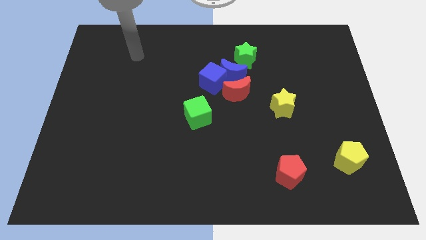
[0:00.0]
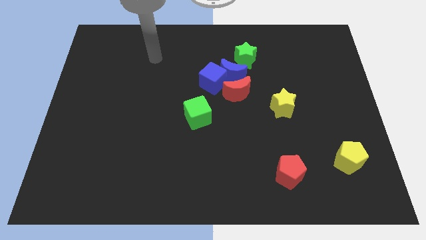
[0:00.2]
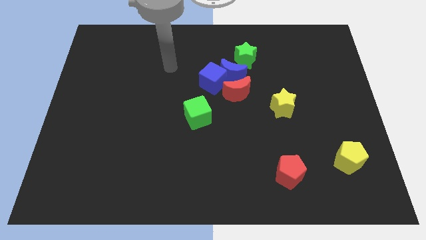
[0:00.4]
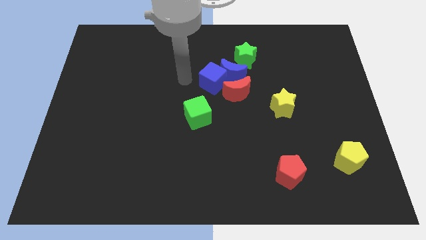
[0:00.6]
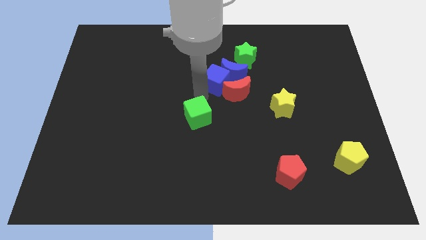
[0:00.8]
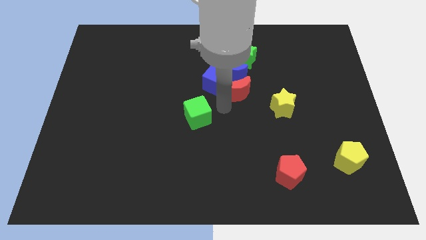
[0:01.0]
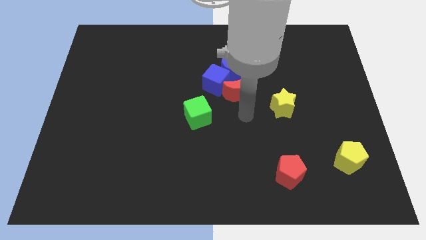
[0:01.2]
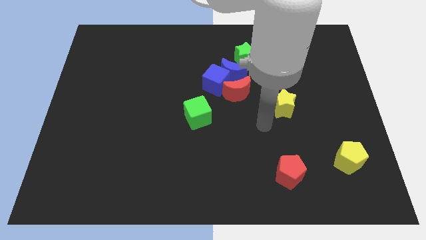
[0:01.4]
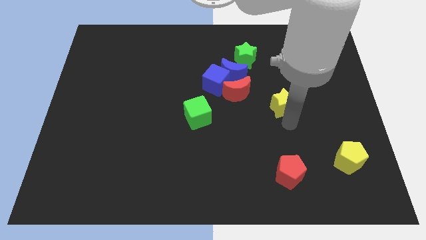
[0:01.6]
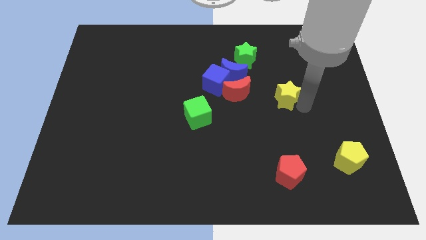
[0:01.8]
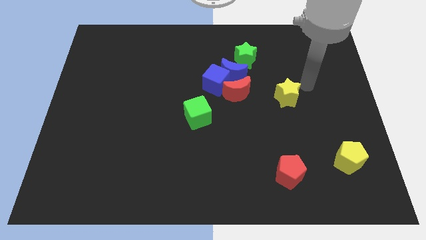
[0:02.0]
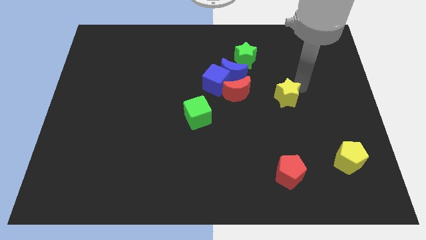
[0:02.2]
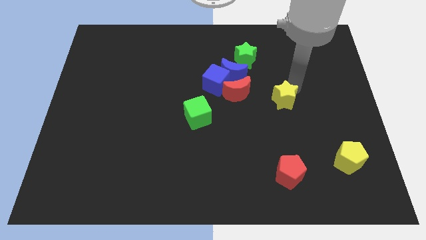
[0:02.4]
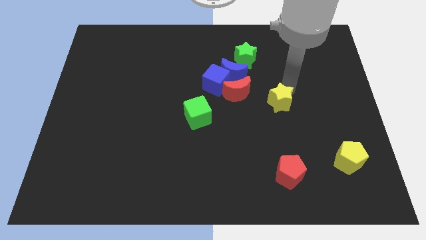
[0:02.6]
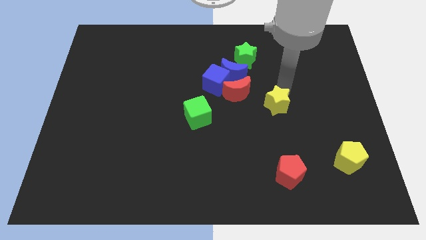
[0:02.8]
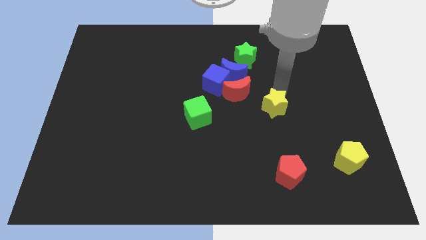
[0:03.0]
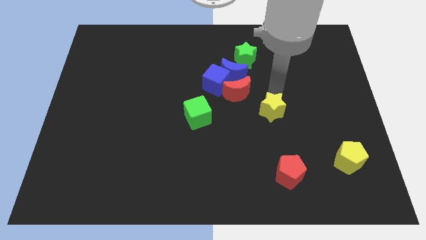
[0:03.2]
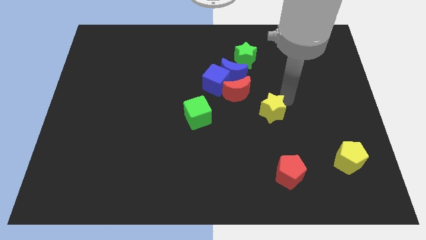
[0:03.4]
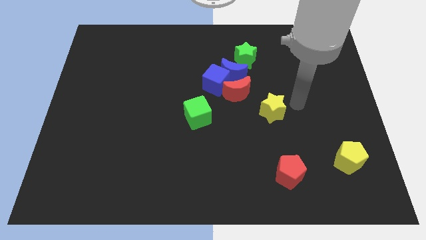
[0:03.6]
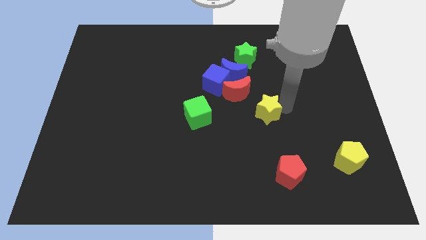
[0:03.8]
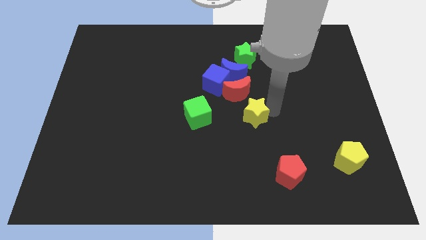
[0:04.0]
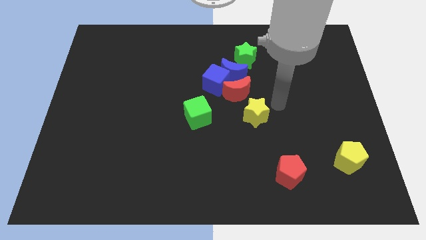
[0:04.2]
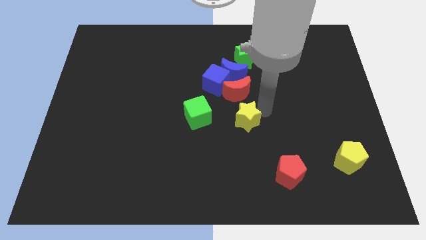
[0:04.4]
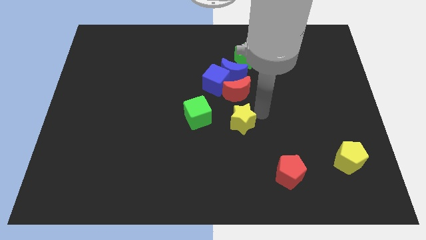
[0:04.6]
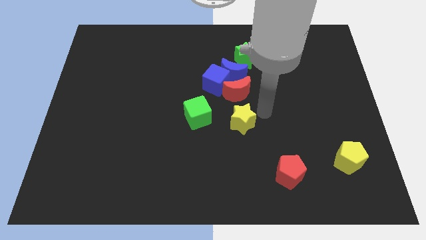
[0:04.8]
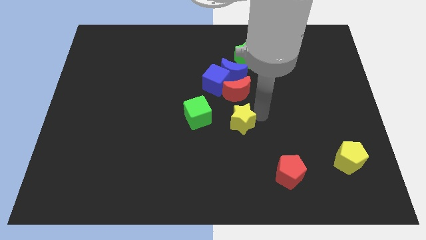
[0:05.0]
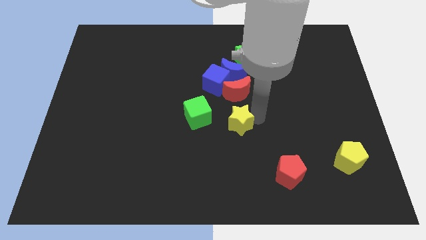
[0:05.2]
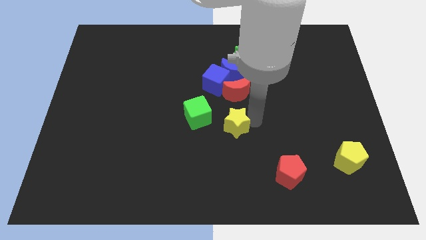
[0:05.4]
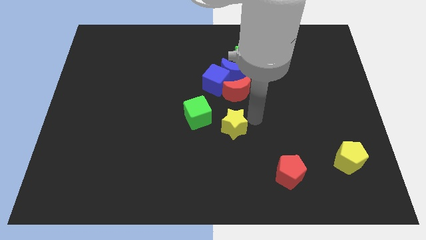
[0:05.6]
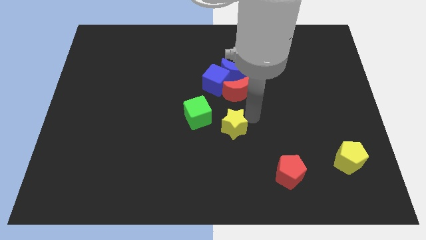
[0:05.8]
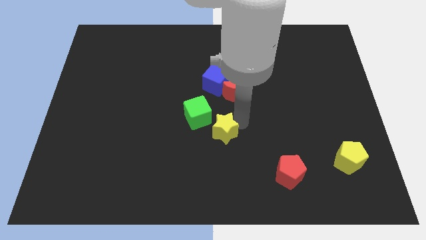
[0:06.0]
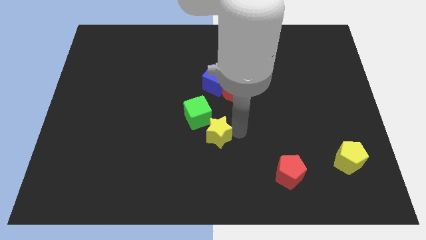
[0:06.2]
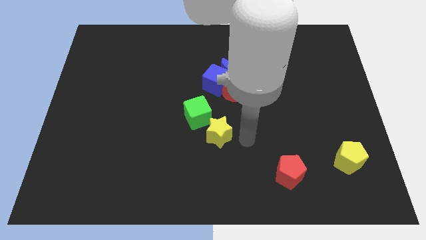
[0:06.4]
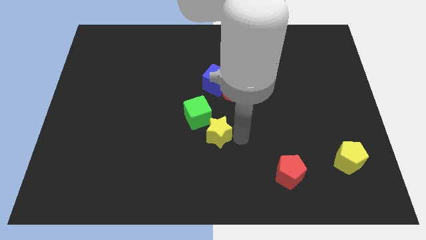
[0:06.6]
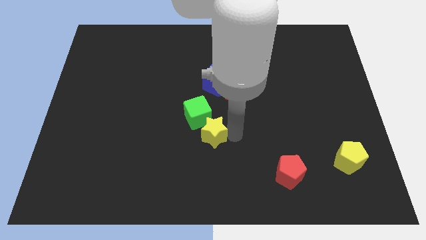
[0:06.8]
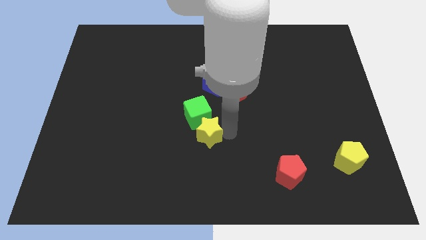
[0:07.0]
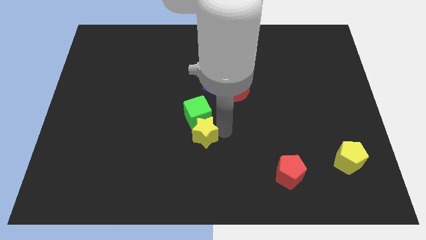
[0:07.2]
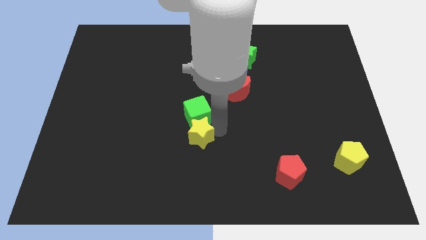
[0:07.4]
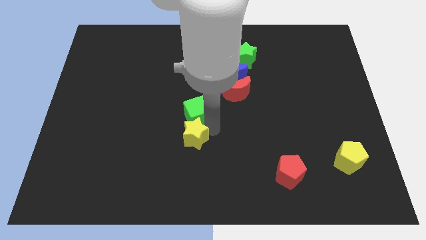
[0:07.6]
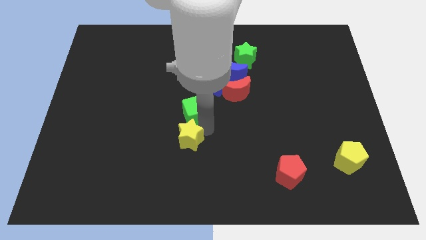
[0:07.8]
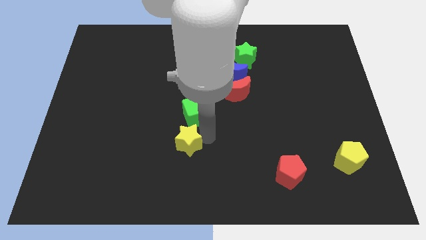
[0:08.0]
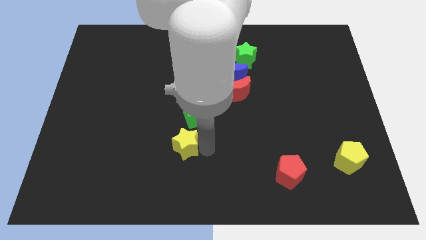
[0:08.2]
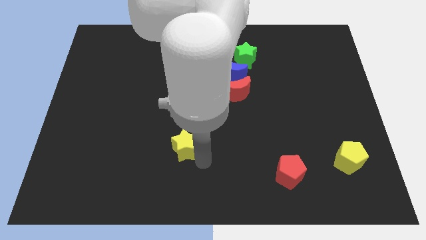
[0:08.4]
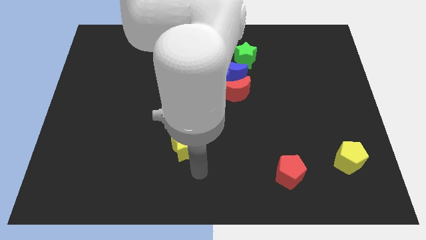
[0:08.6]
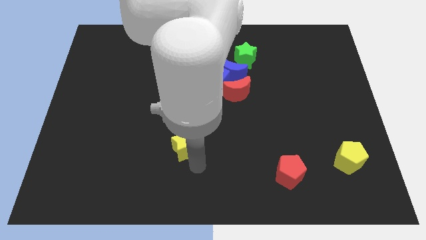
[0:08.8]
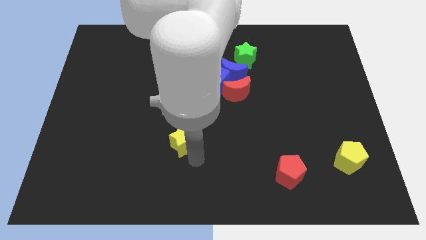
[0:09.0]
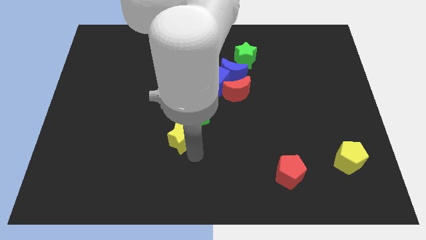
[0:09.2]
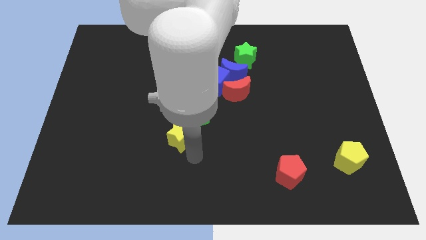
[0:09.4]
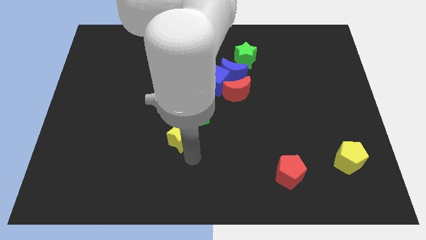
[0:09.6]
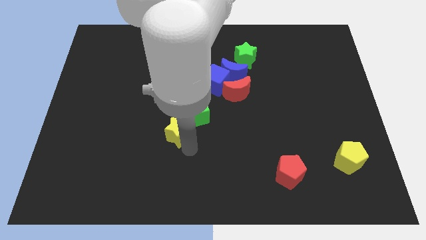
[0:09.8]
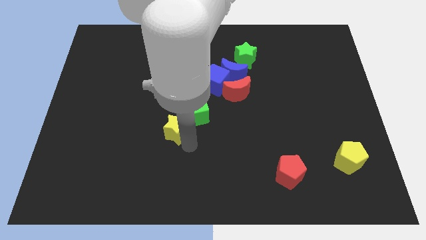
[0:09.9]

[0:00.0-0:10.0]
move the yellow star left of the green cube

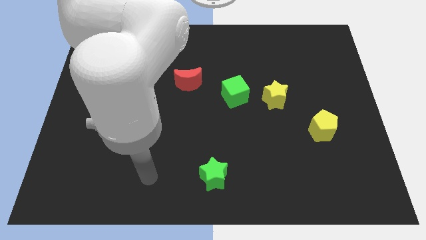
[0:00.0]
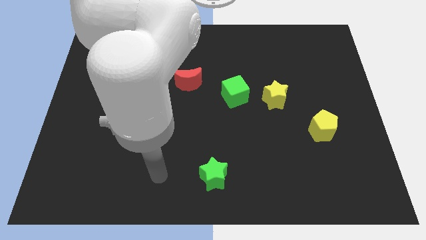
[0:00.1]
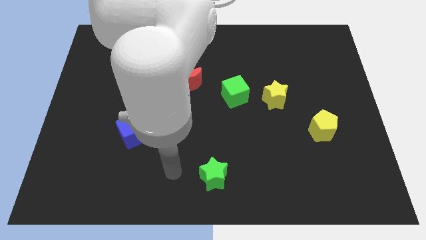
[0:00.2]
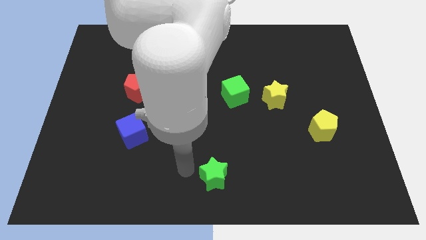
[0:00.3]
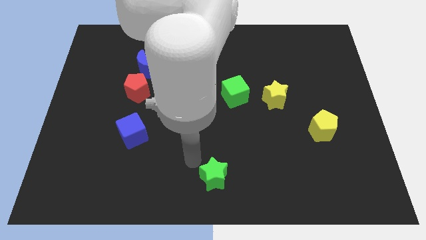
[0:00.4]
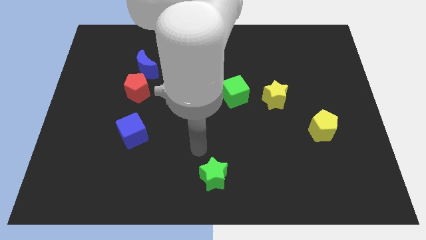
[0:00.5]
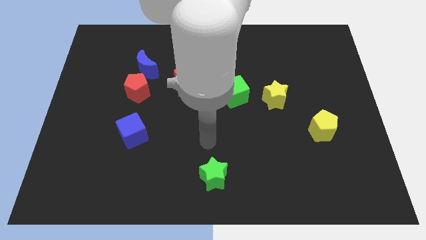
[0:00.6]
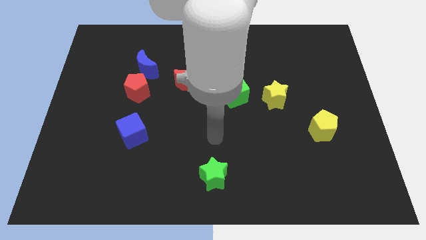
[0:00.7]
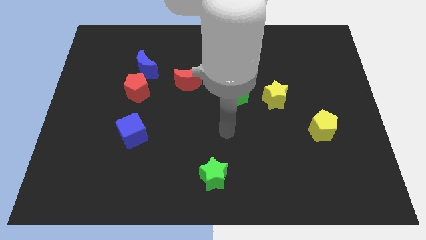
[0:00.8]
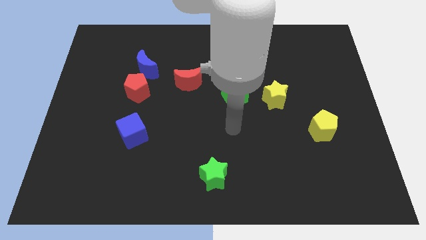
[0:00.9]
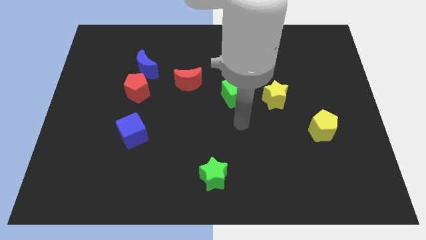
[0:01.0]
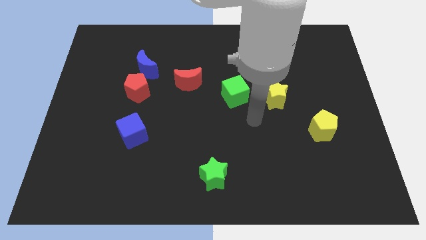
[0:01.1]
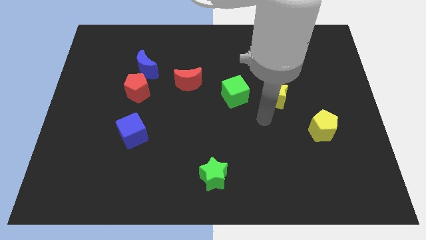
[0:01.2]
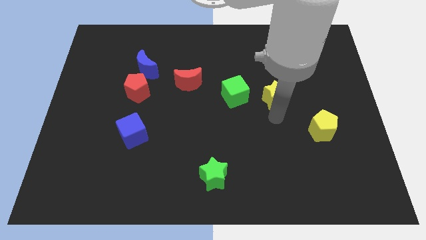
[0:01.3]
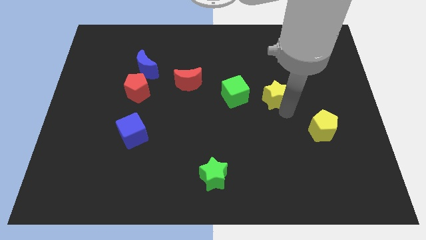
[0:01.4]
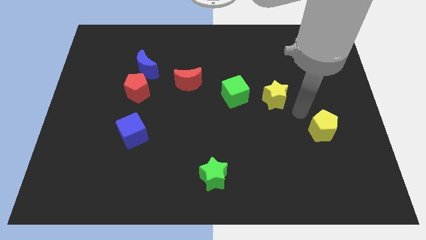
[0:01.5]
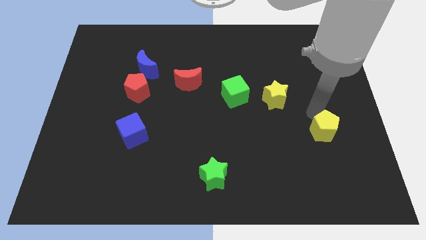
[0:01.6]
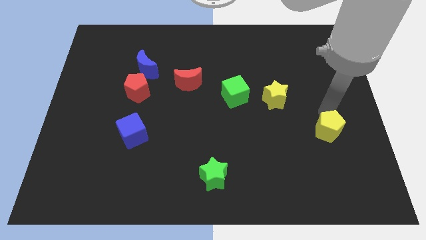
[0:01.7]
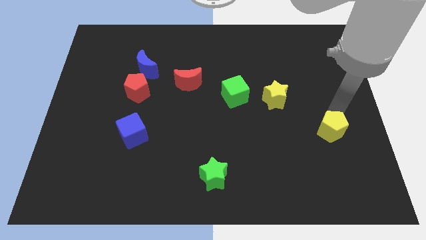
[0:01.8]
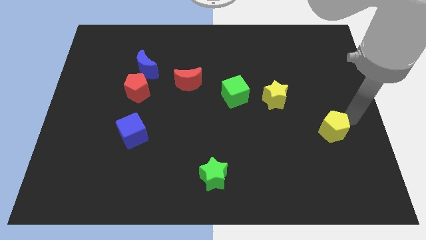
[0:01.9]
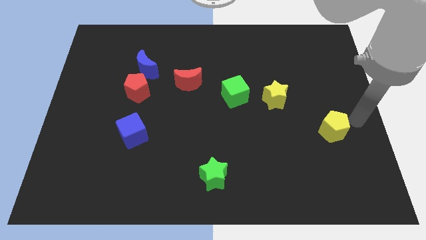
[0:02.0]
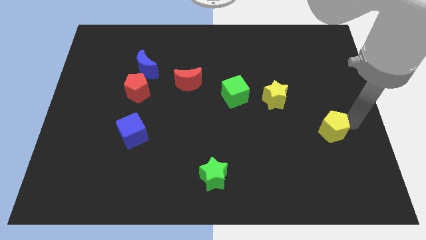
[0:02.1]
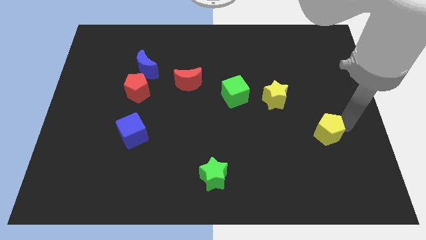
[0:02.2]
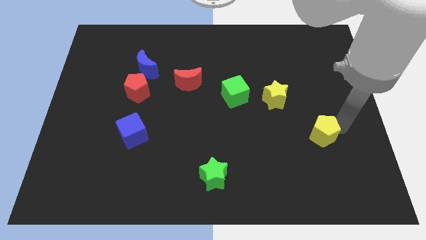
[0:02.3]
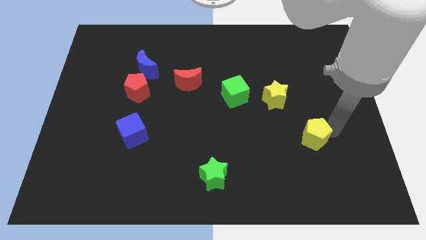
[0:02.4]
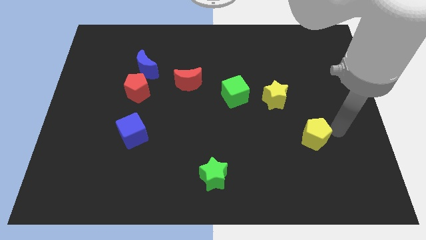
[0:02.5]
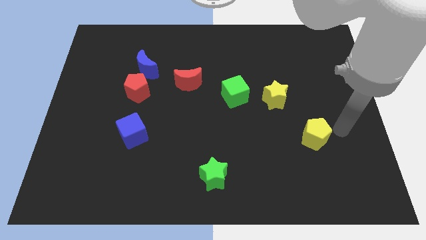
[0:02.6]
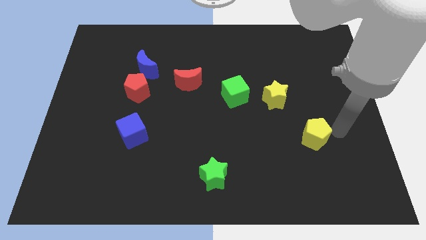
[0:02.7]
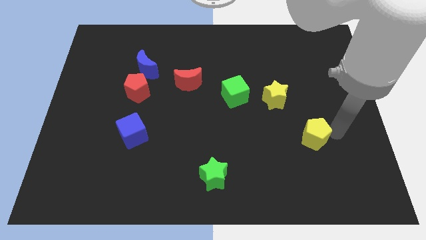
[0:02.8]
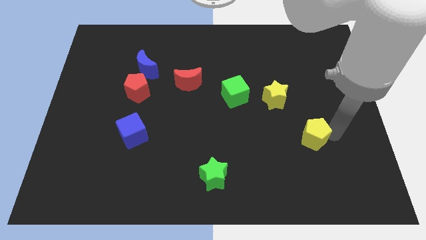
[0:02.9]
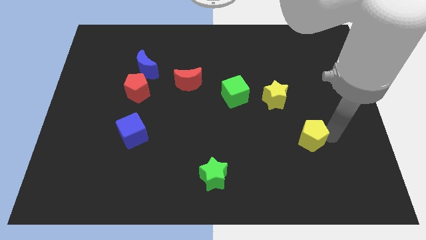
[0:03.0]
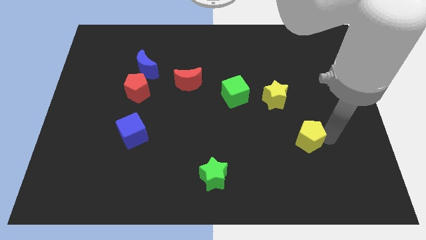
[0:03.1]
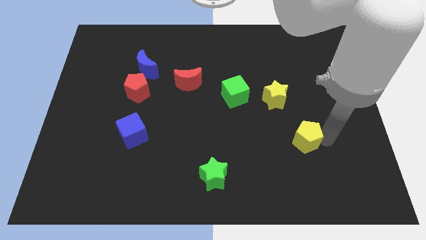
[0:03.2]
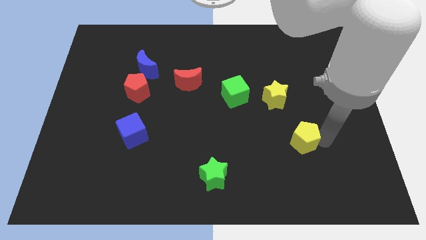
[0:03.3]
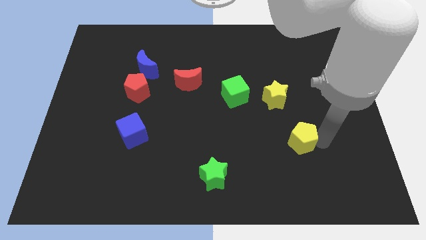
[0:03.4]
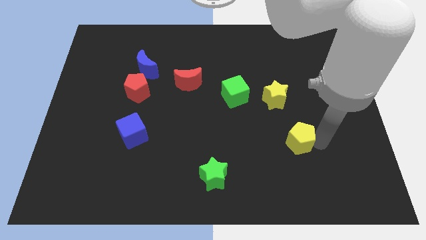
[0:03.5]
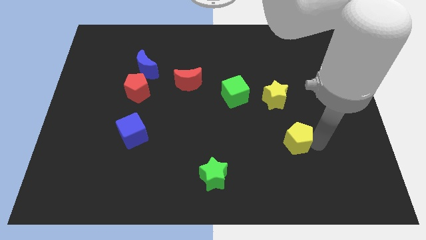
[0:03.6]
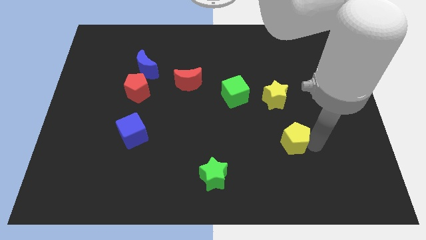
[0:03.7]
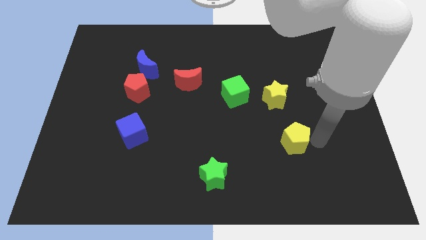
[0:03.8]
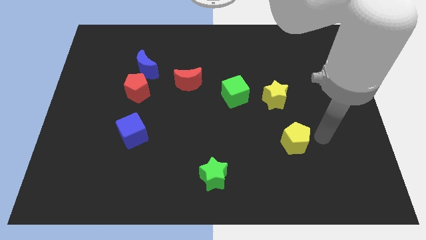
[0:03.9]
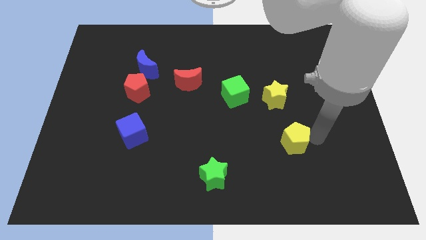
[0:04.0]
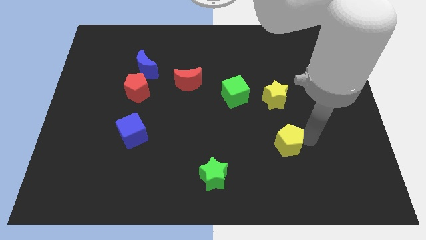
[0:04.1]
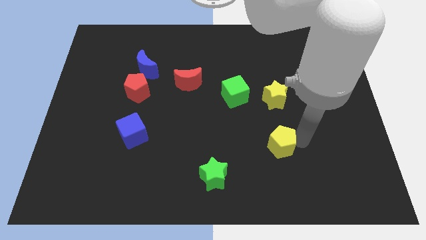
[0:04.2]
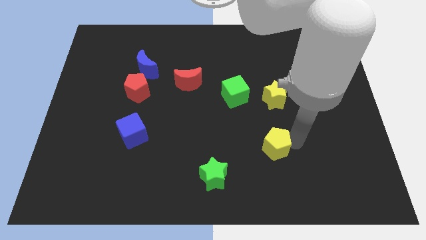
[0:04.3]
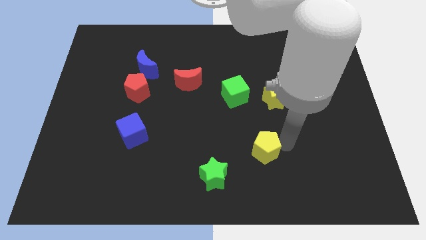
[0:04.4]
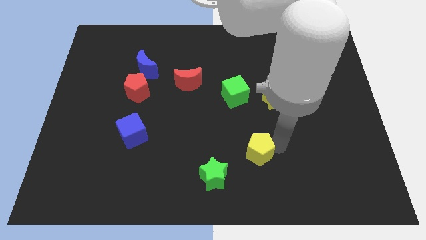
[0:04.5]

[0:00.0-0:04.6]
move the yellow pentagon to the top right of the green star
